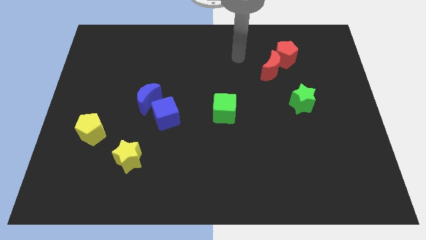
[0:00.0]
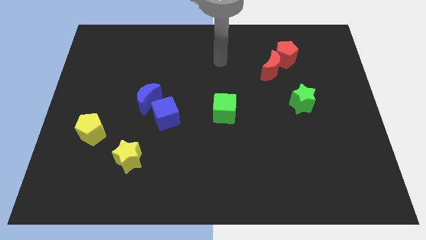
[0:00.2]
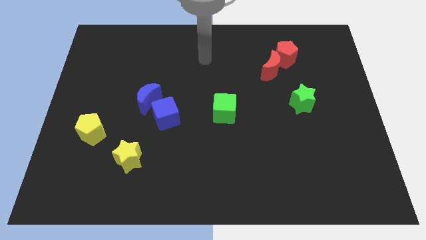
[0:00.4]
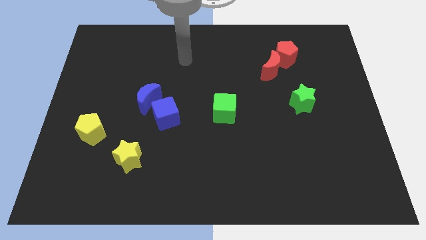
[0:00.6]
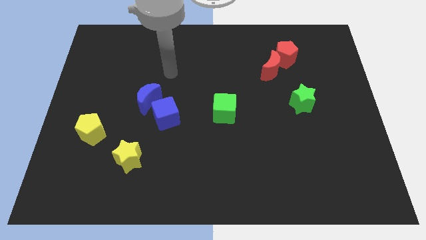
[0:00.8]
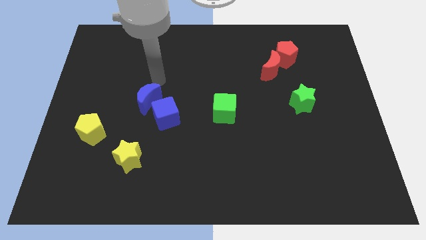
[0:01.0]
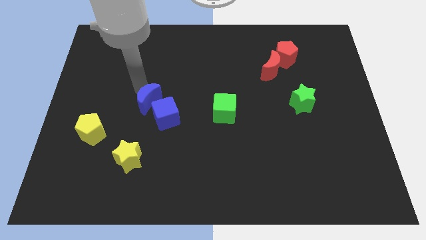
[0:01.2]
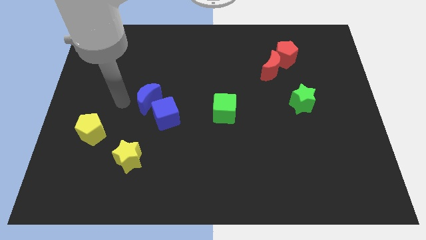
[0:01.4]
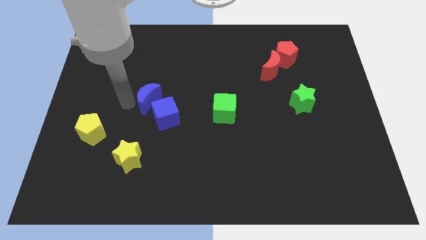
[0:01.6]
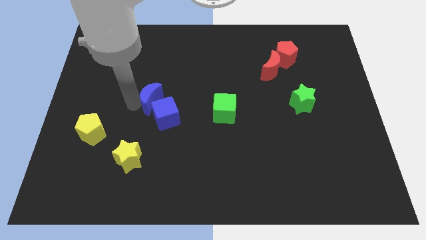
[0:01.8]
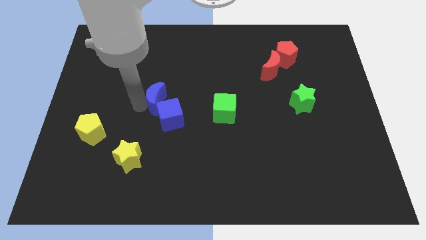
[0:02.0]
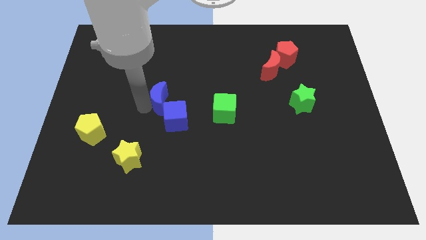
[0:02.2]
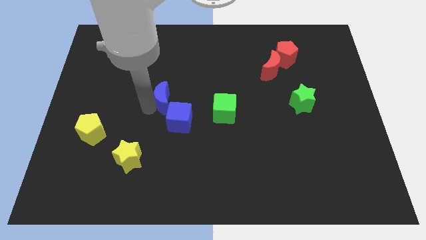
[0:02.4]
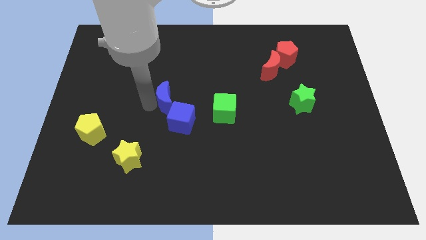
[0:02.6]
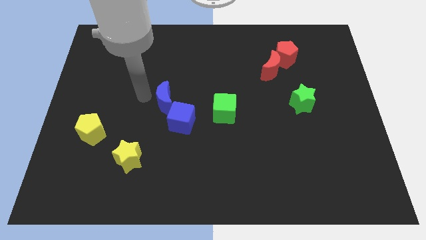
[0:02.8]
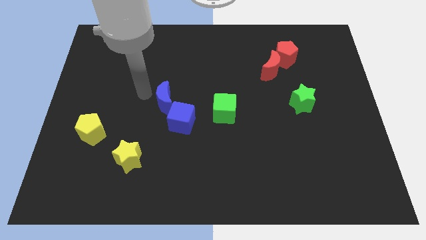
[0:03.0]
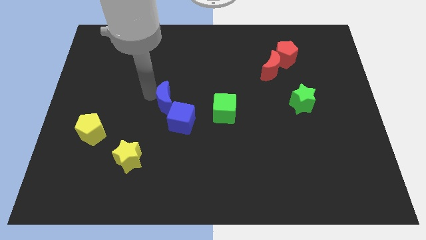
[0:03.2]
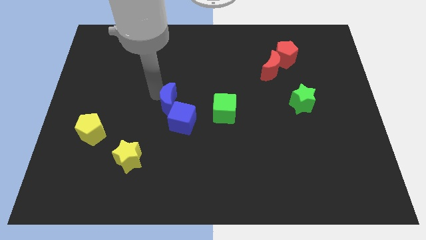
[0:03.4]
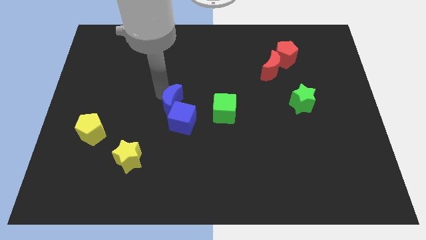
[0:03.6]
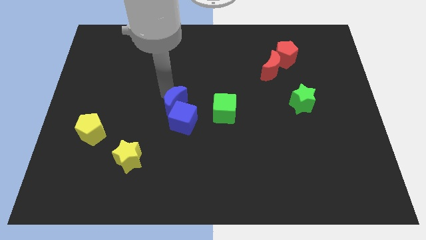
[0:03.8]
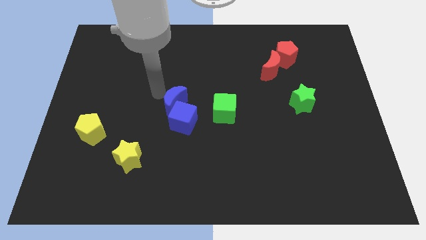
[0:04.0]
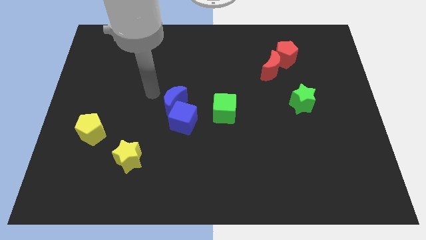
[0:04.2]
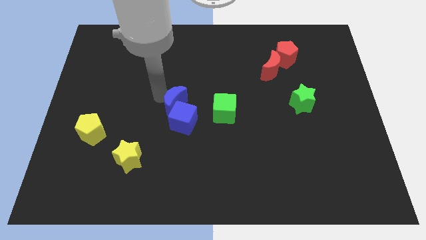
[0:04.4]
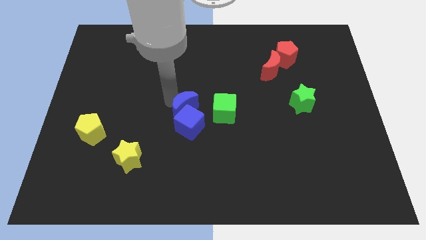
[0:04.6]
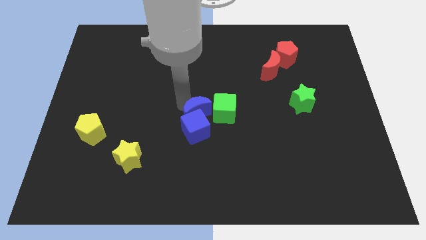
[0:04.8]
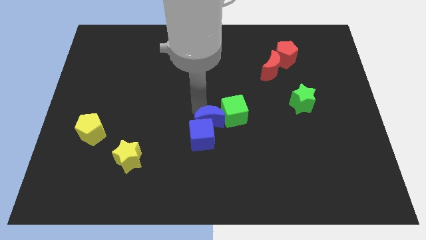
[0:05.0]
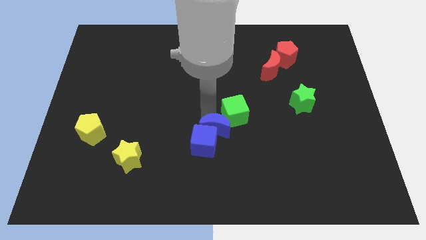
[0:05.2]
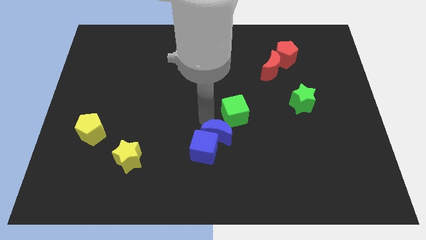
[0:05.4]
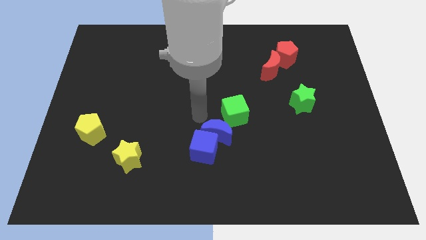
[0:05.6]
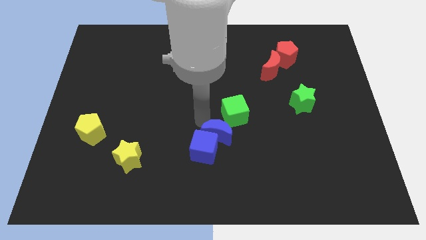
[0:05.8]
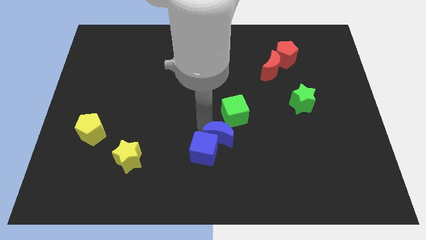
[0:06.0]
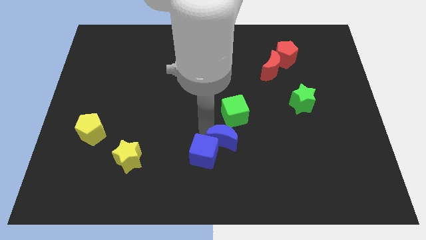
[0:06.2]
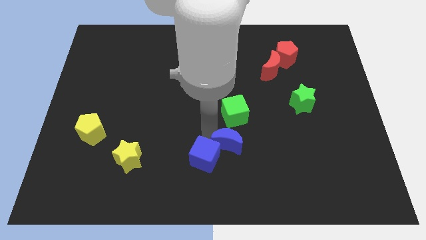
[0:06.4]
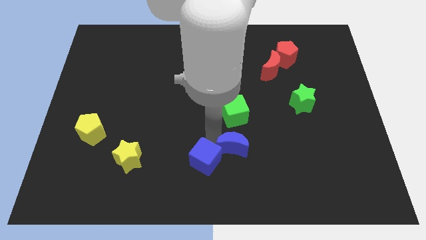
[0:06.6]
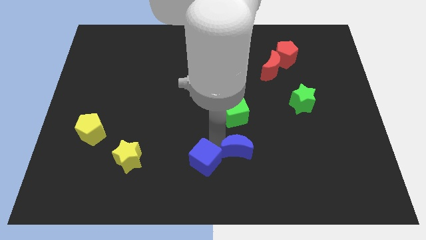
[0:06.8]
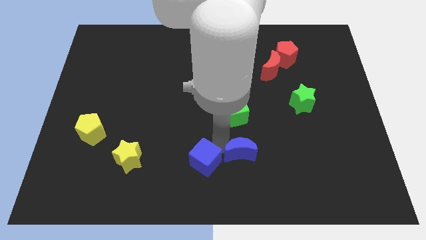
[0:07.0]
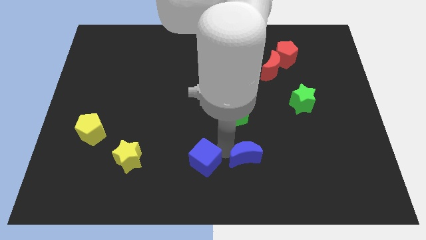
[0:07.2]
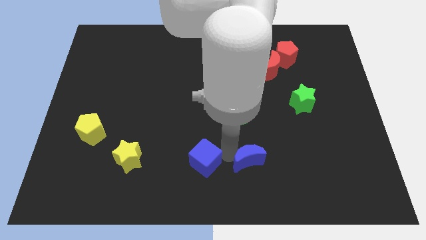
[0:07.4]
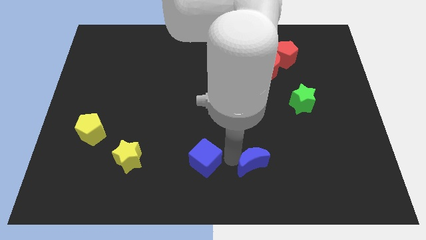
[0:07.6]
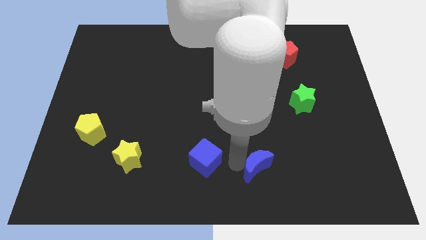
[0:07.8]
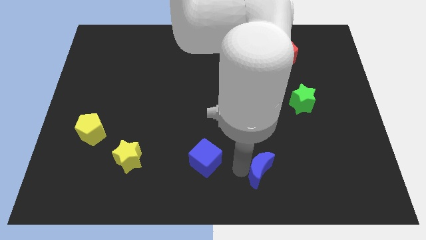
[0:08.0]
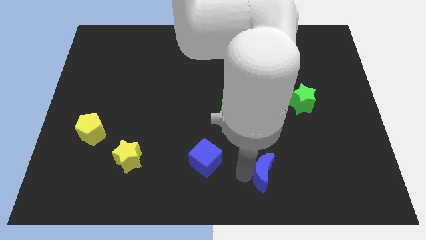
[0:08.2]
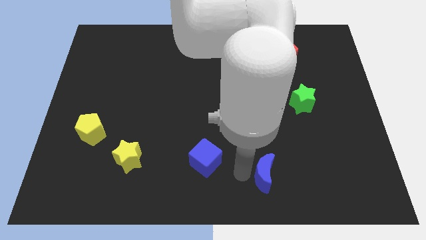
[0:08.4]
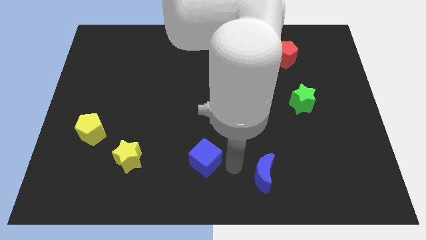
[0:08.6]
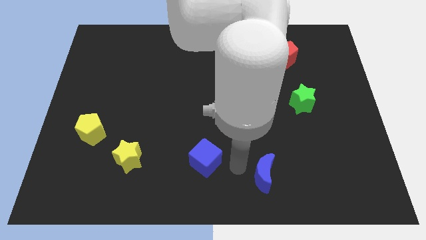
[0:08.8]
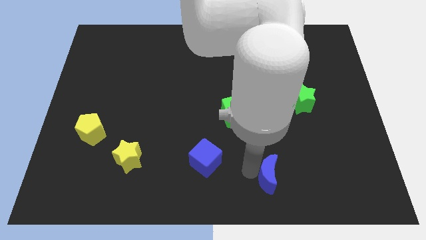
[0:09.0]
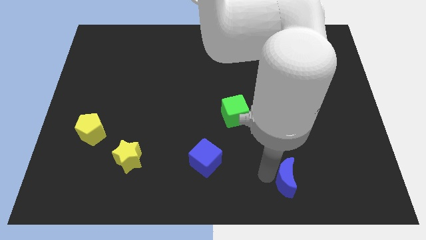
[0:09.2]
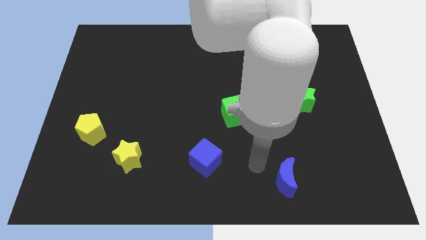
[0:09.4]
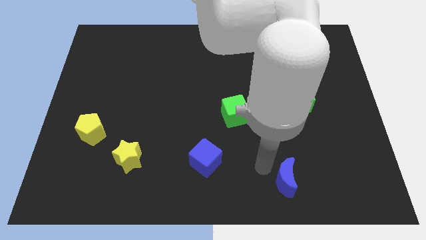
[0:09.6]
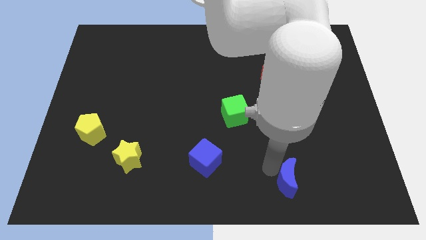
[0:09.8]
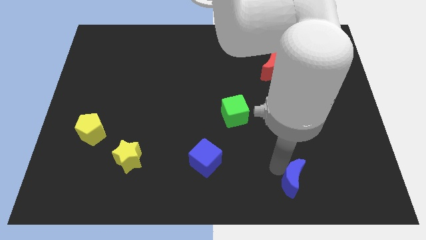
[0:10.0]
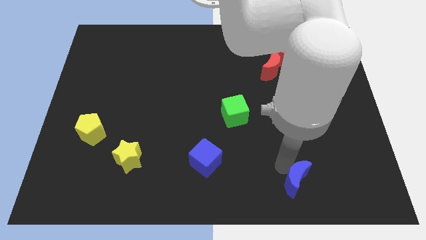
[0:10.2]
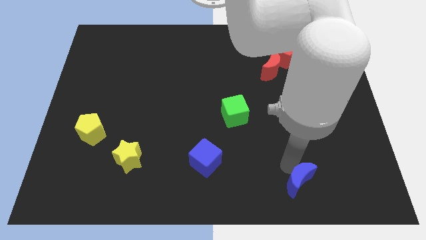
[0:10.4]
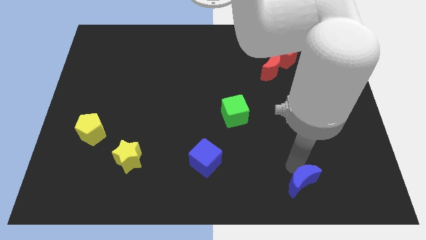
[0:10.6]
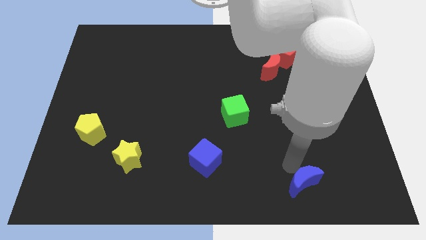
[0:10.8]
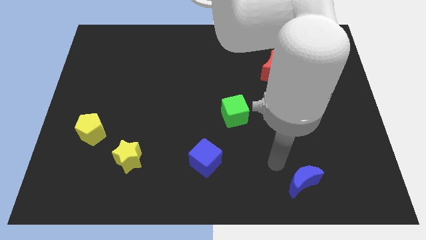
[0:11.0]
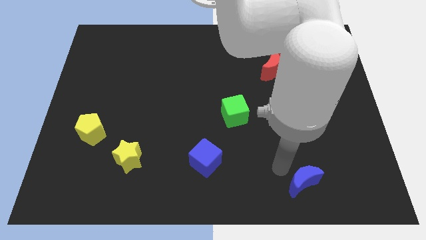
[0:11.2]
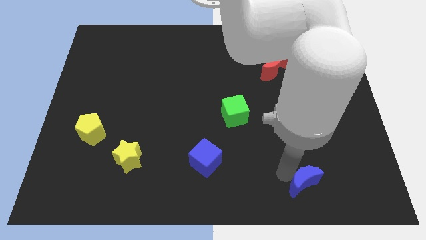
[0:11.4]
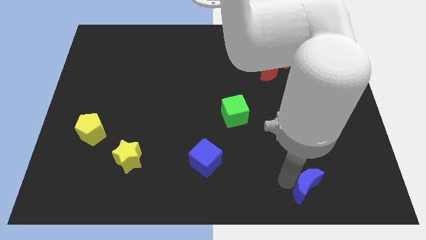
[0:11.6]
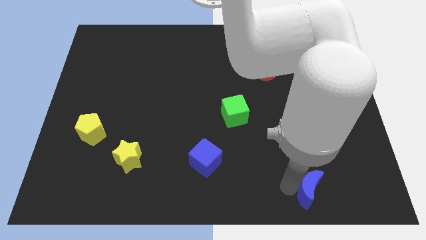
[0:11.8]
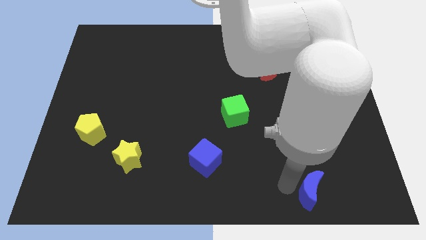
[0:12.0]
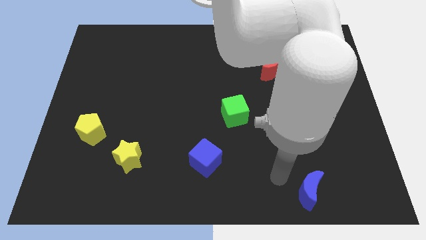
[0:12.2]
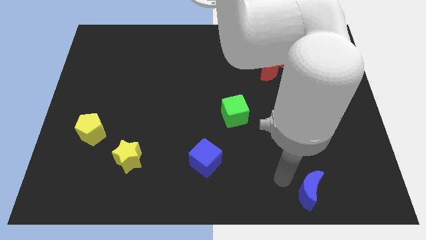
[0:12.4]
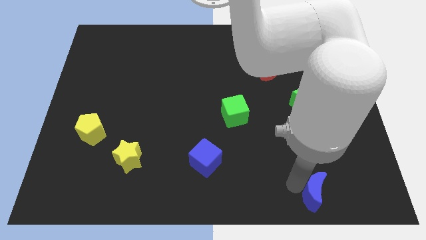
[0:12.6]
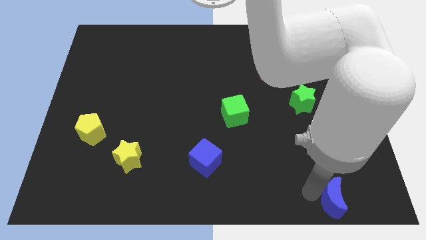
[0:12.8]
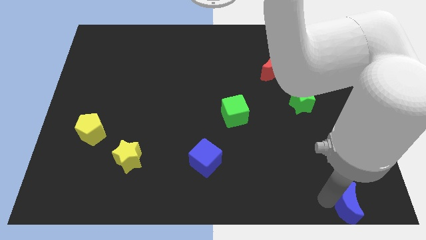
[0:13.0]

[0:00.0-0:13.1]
push the blue moon to the bottom right of the board
